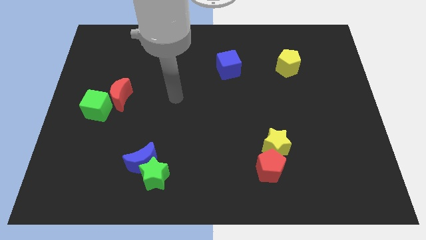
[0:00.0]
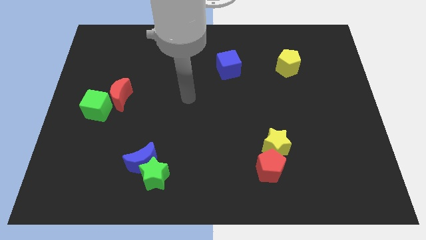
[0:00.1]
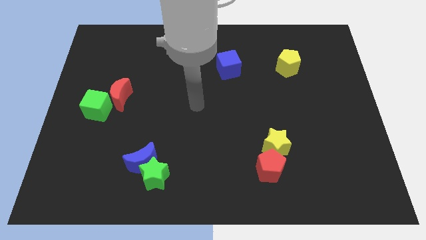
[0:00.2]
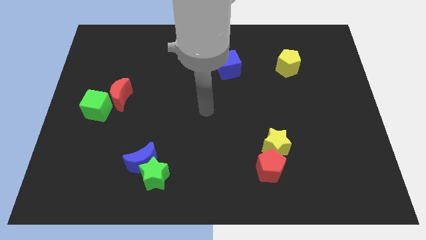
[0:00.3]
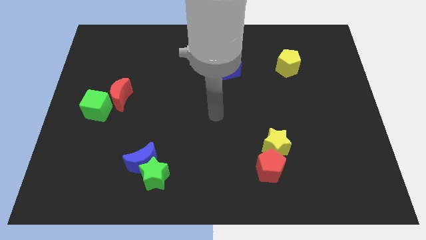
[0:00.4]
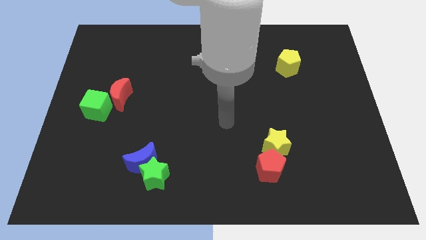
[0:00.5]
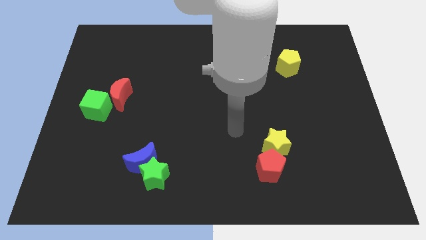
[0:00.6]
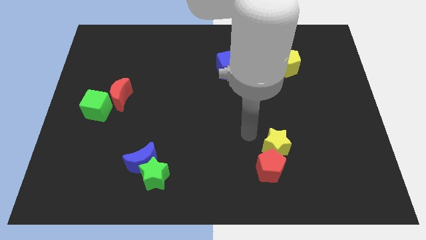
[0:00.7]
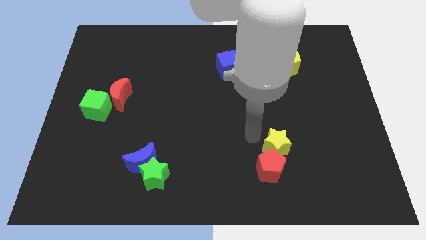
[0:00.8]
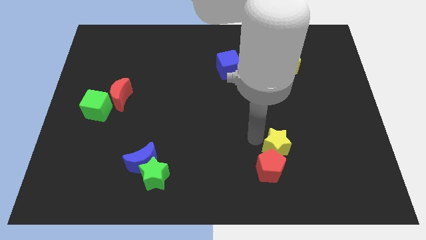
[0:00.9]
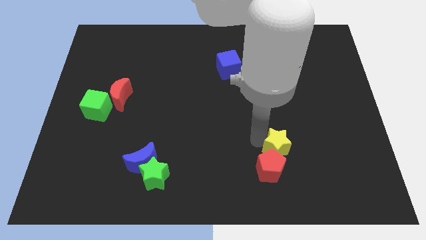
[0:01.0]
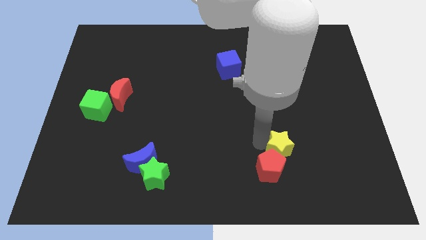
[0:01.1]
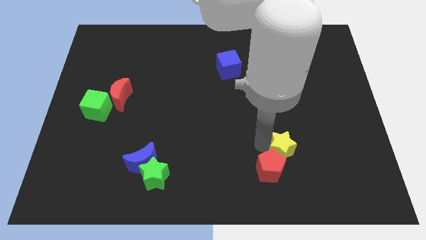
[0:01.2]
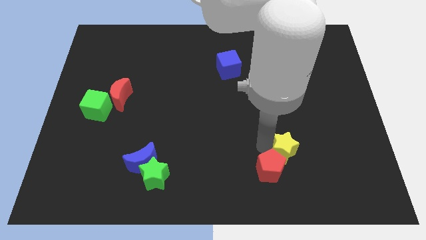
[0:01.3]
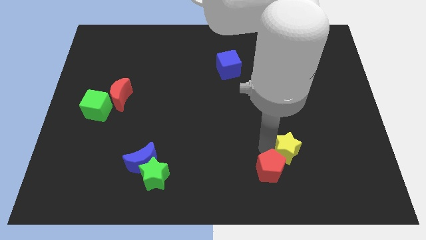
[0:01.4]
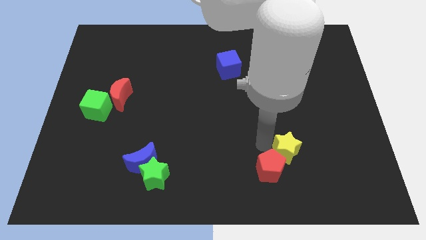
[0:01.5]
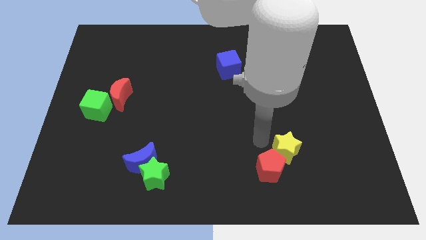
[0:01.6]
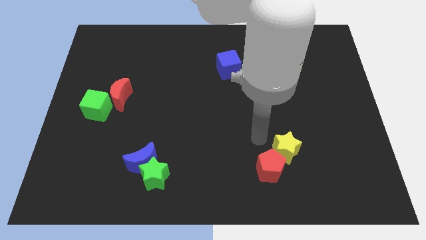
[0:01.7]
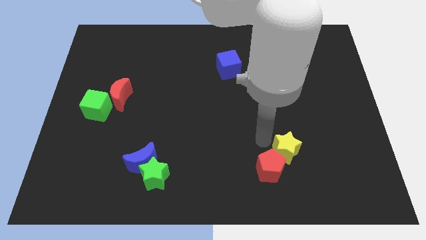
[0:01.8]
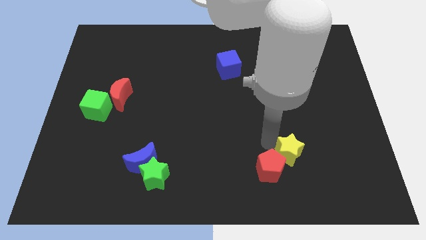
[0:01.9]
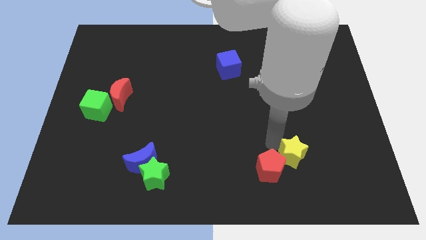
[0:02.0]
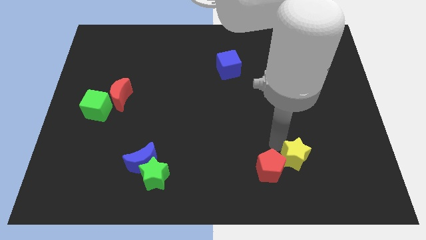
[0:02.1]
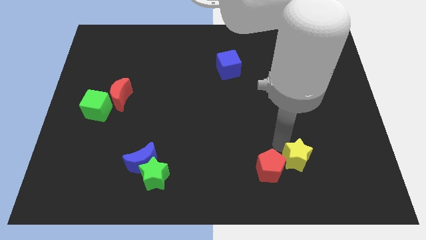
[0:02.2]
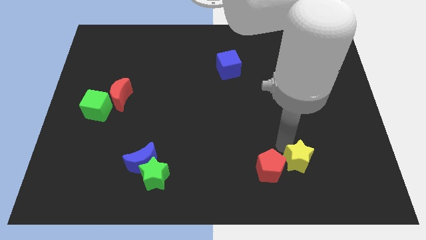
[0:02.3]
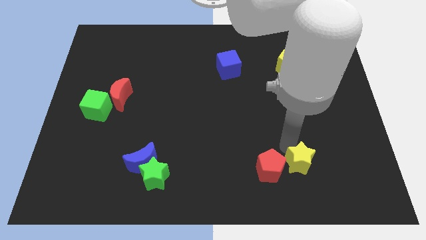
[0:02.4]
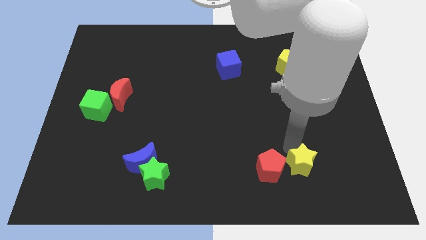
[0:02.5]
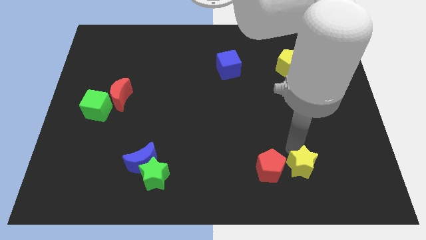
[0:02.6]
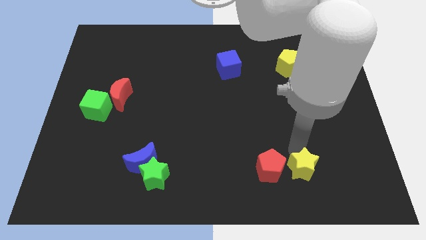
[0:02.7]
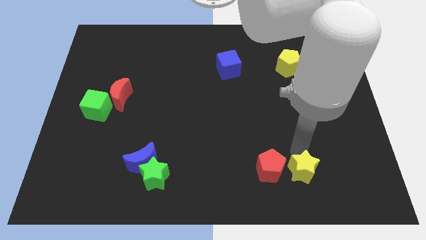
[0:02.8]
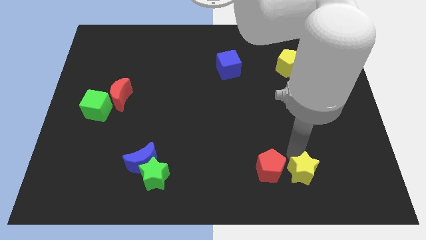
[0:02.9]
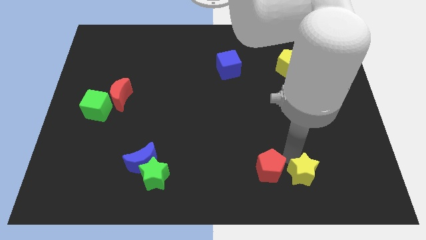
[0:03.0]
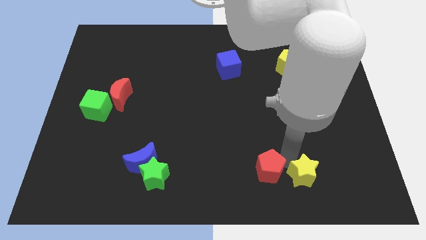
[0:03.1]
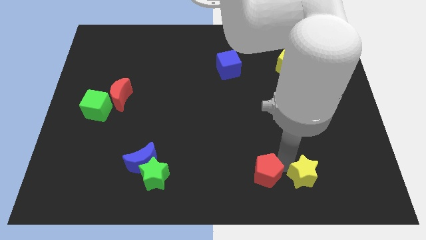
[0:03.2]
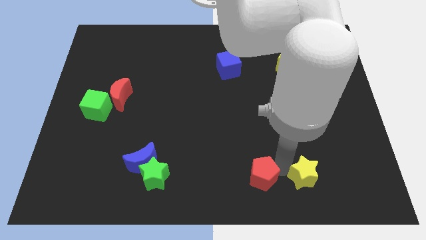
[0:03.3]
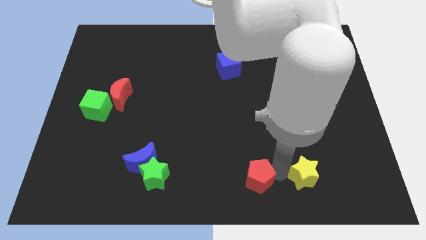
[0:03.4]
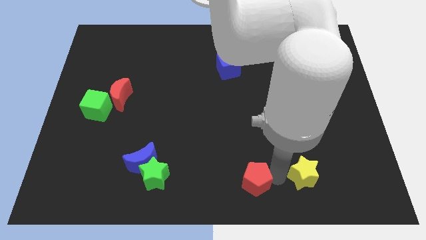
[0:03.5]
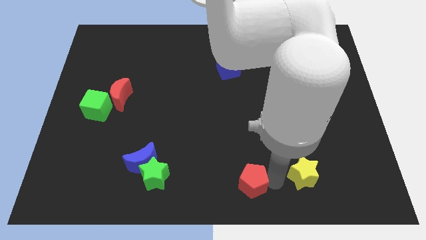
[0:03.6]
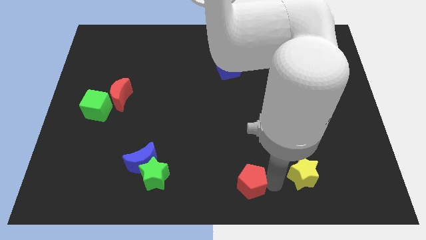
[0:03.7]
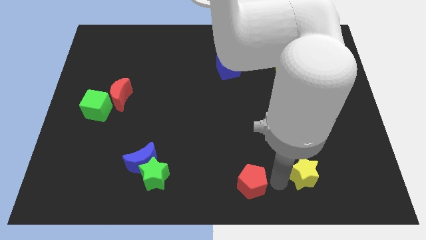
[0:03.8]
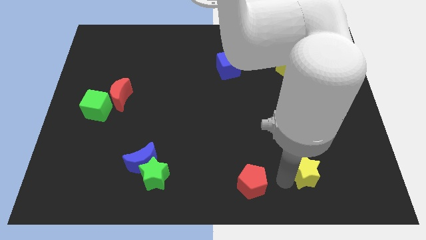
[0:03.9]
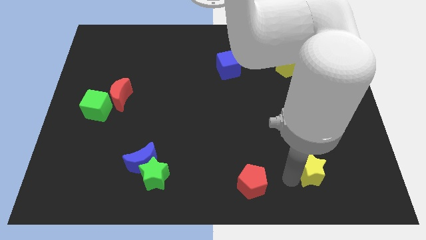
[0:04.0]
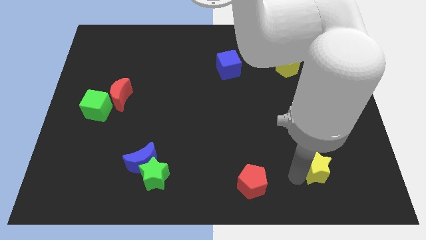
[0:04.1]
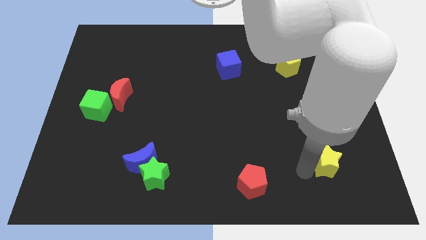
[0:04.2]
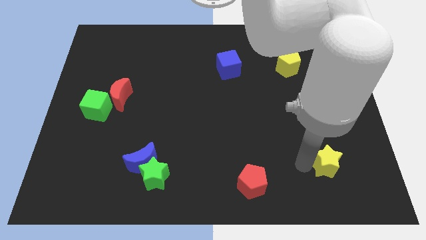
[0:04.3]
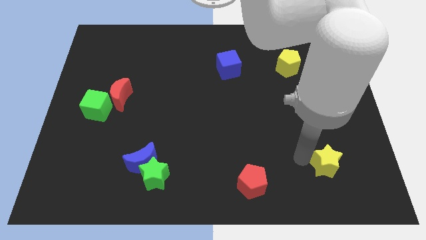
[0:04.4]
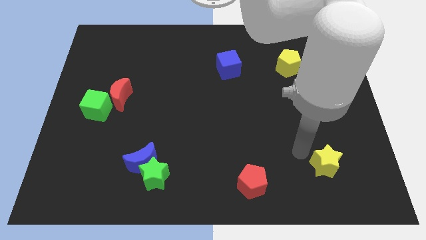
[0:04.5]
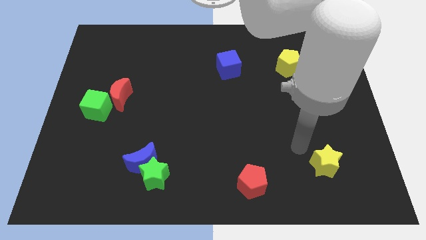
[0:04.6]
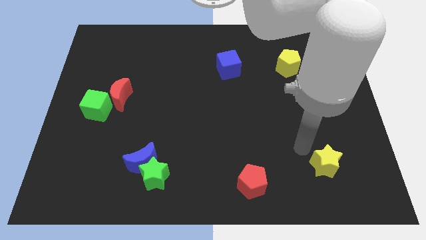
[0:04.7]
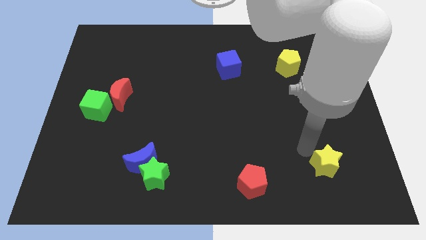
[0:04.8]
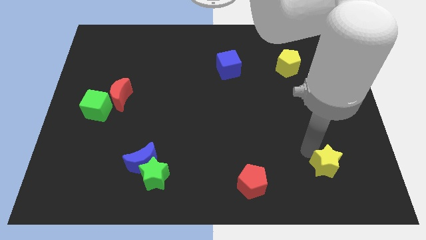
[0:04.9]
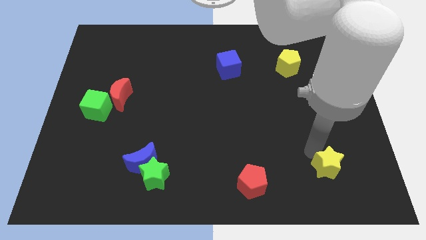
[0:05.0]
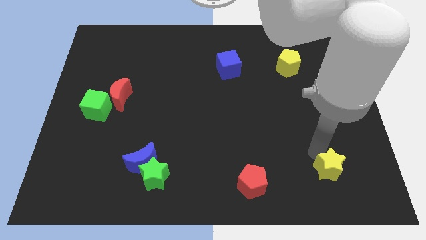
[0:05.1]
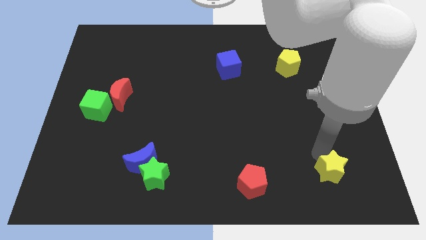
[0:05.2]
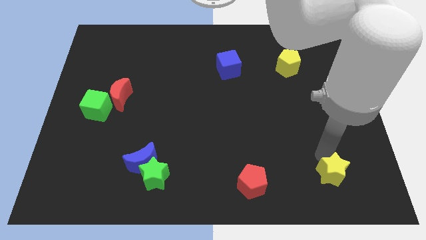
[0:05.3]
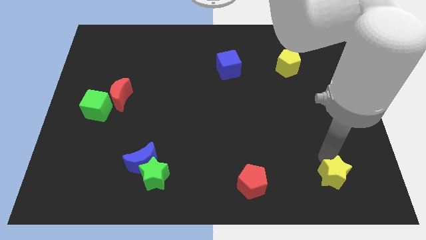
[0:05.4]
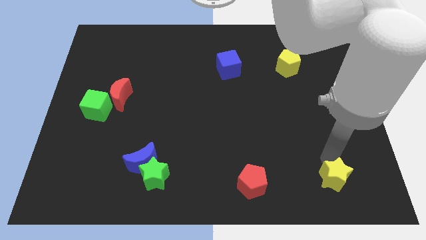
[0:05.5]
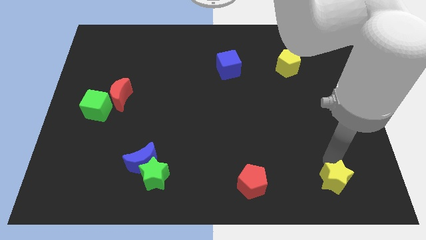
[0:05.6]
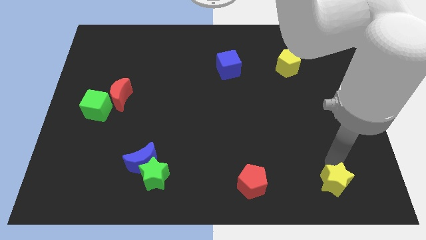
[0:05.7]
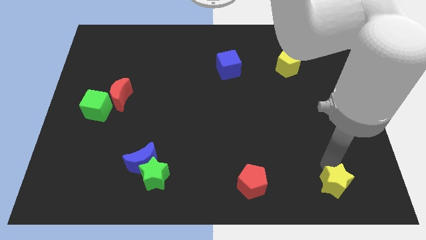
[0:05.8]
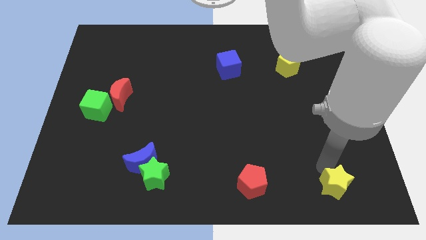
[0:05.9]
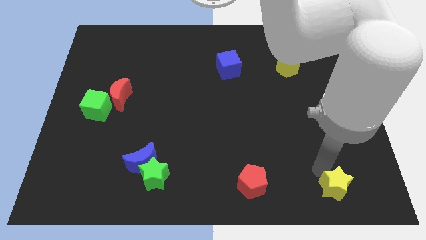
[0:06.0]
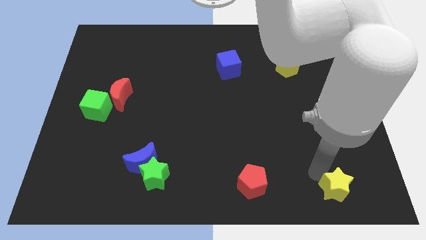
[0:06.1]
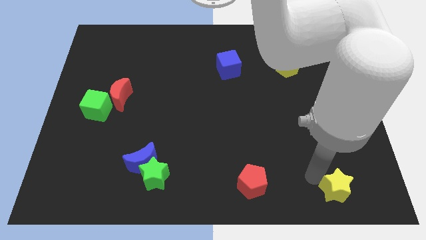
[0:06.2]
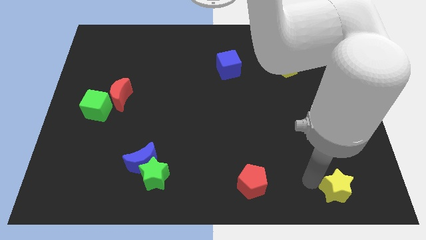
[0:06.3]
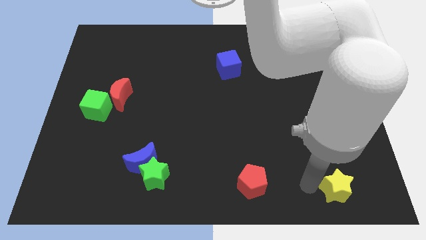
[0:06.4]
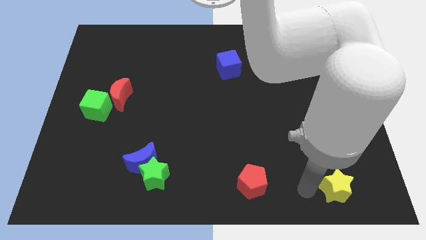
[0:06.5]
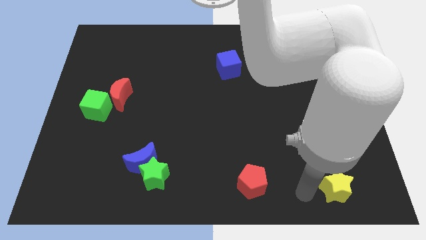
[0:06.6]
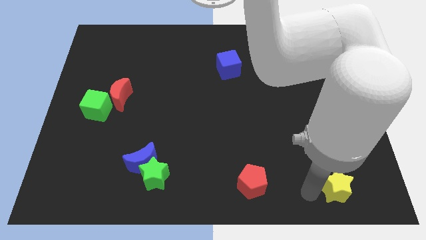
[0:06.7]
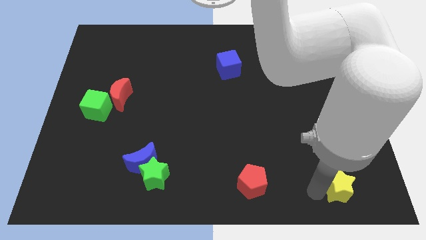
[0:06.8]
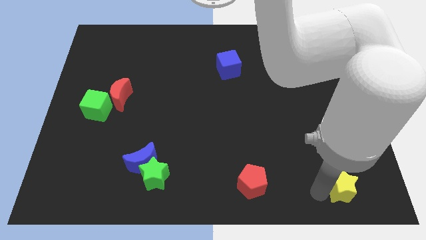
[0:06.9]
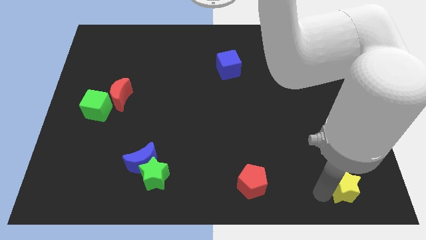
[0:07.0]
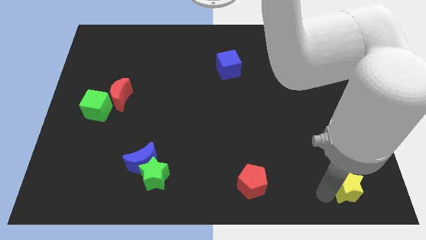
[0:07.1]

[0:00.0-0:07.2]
move the yellow star to the lower right corner
